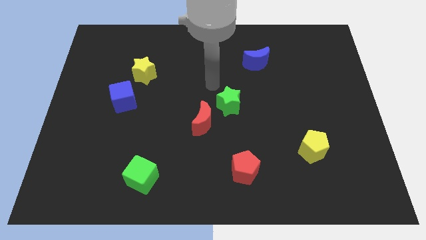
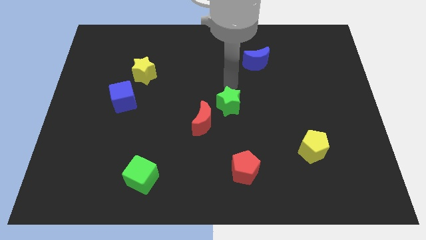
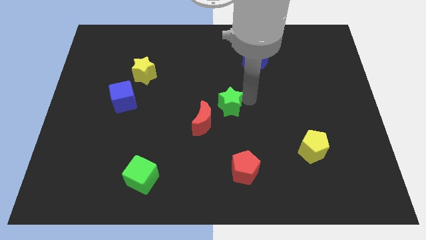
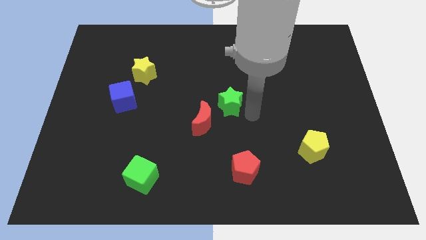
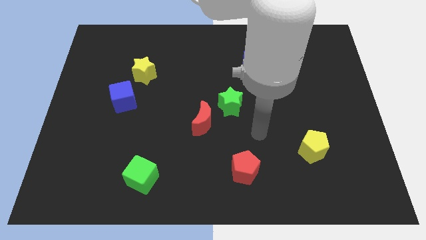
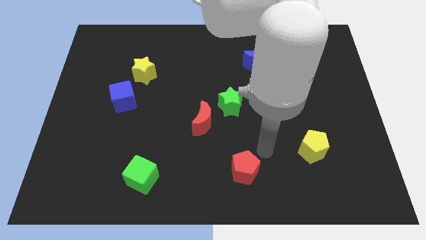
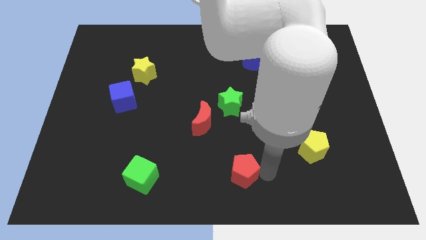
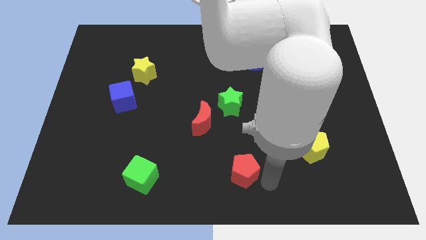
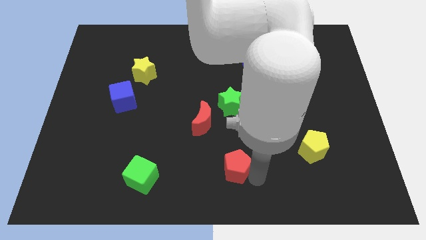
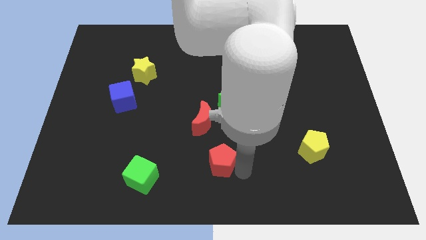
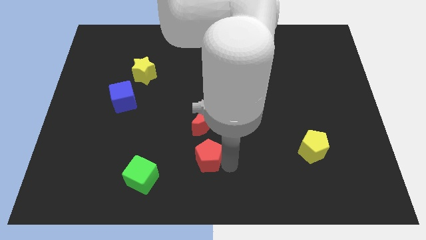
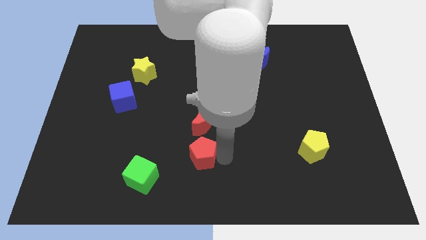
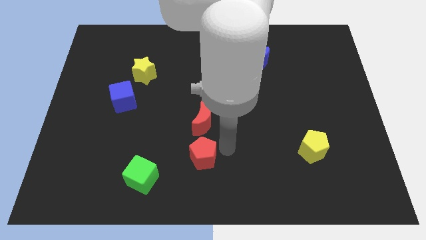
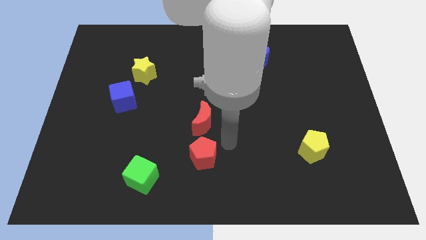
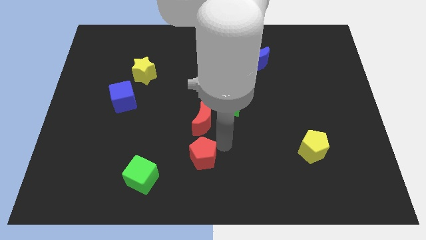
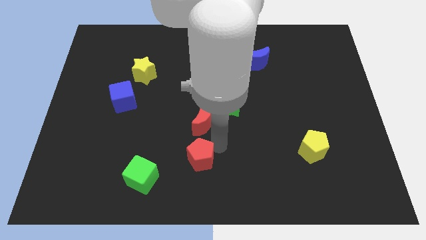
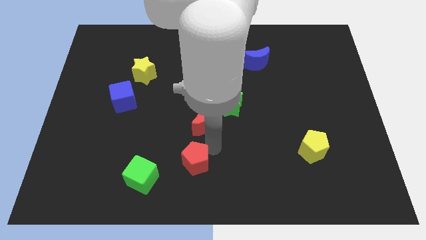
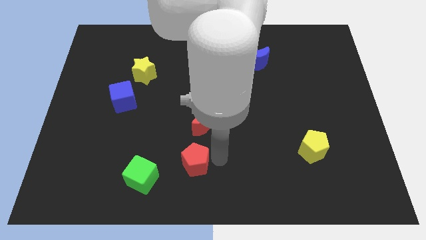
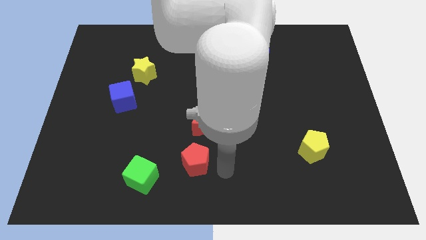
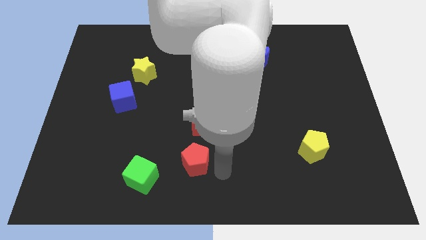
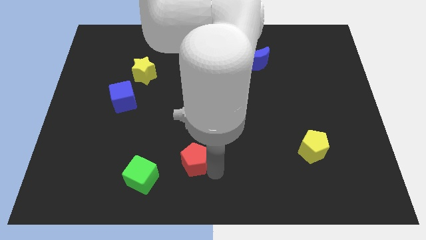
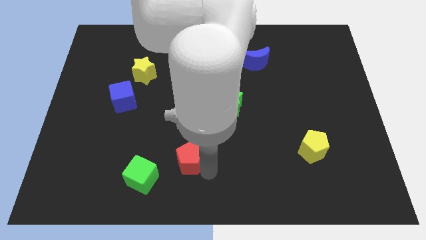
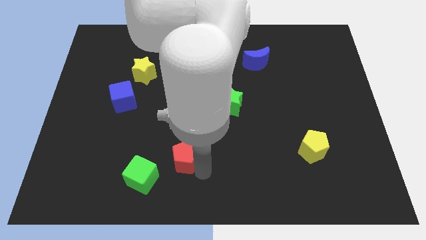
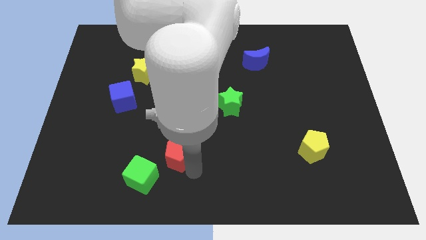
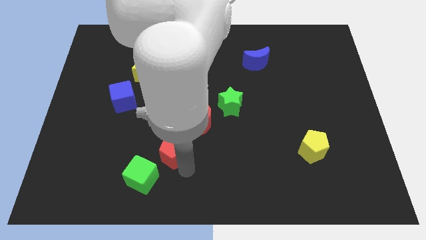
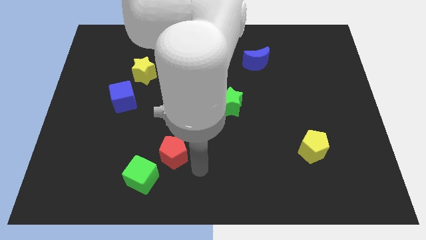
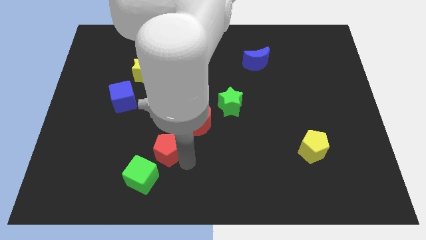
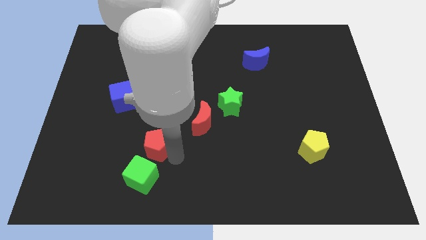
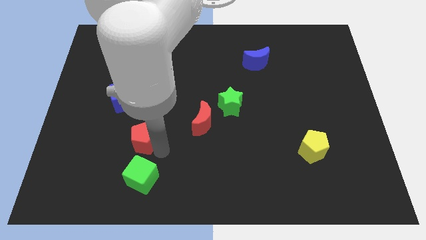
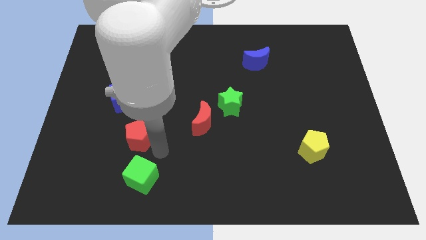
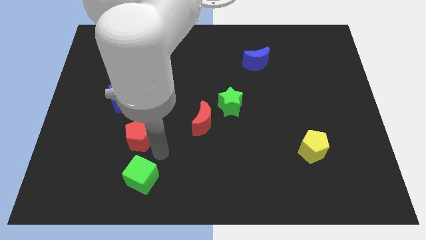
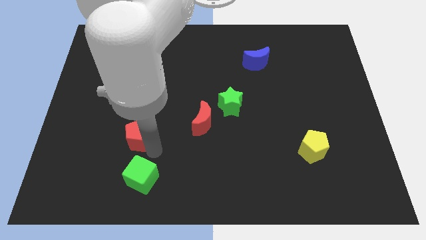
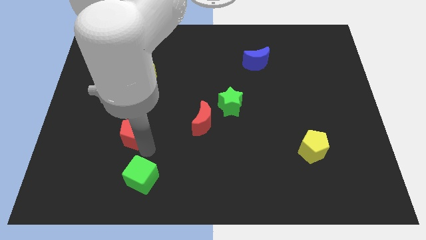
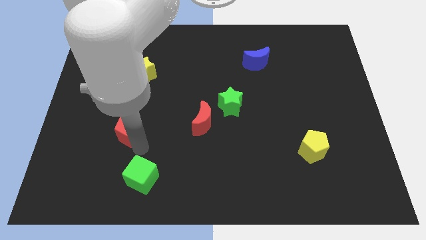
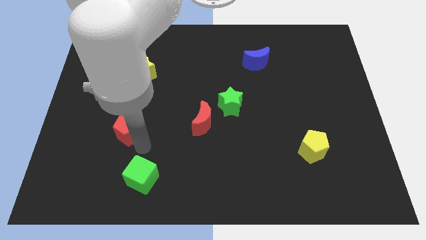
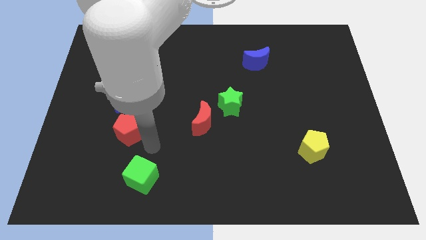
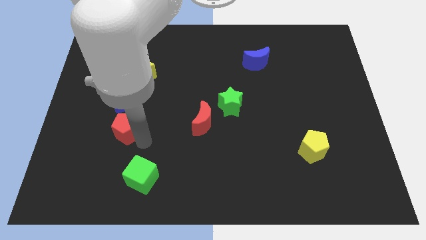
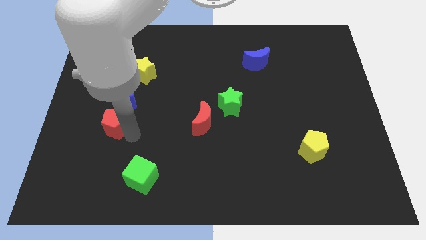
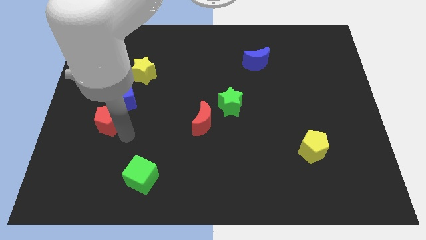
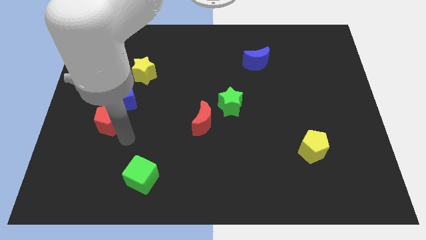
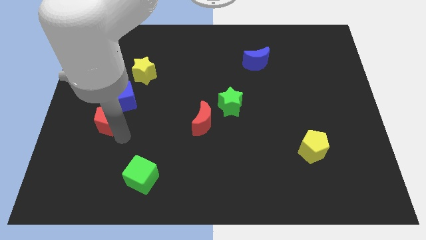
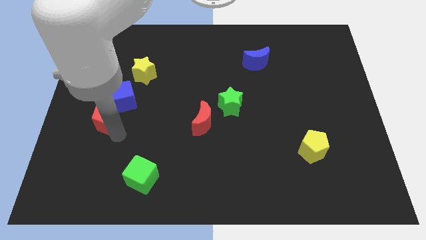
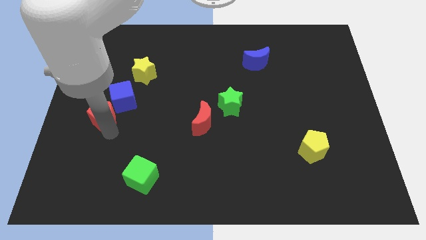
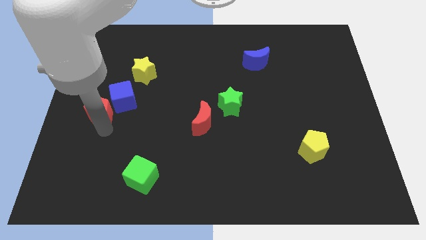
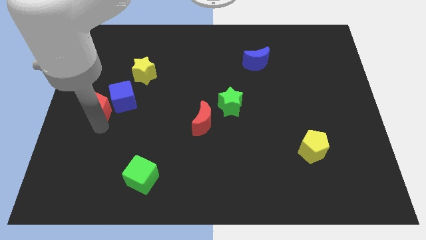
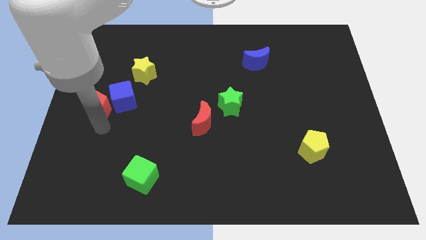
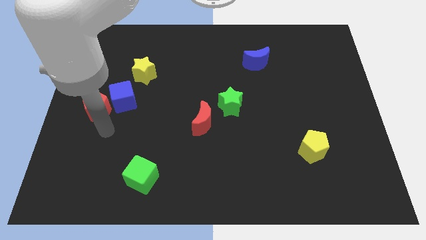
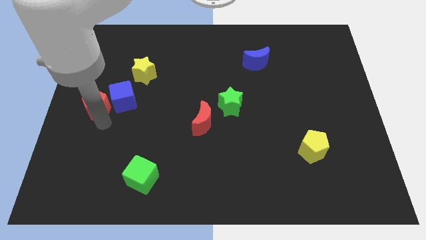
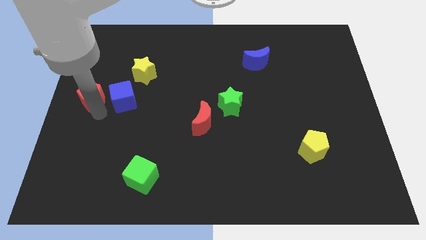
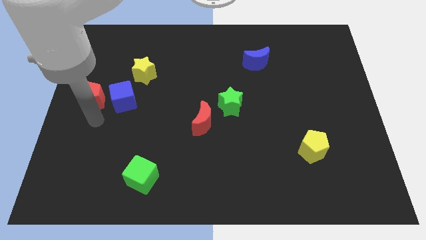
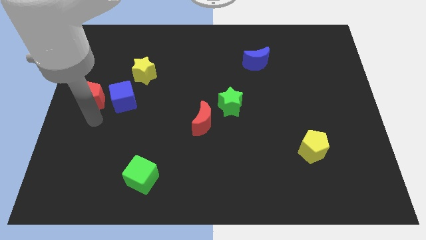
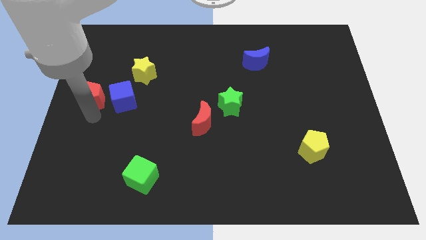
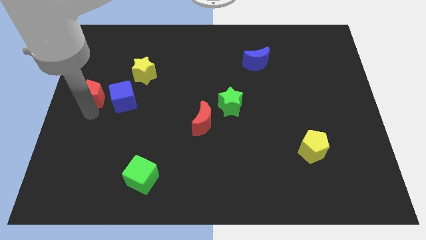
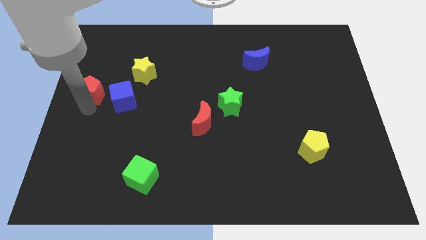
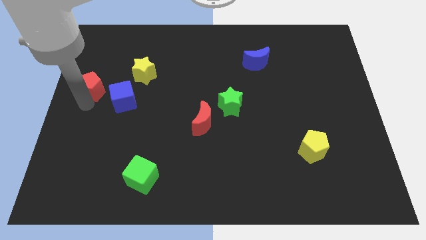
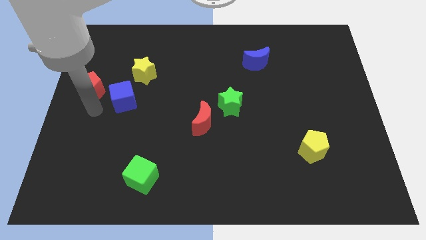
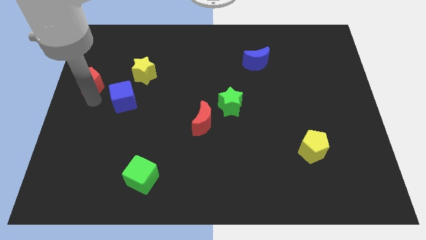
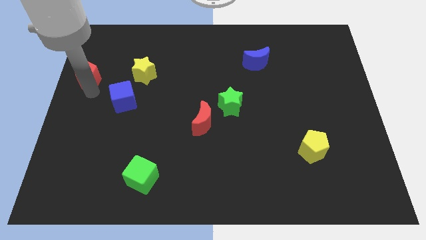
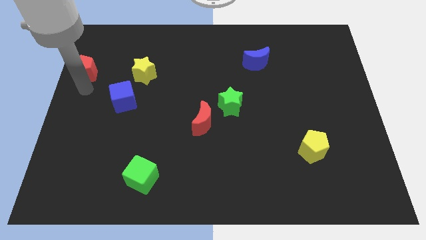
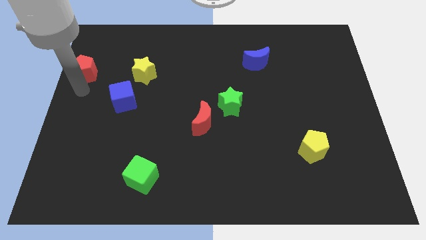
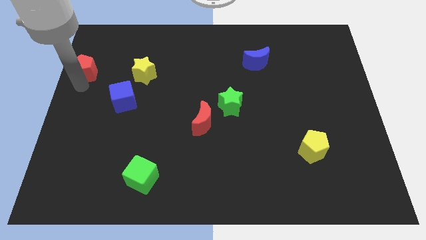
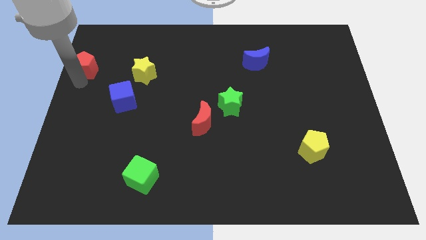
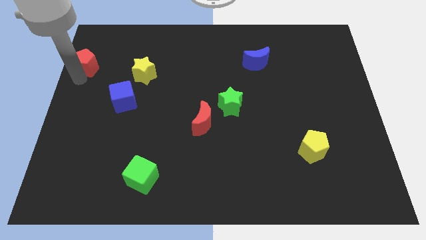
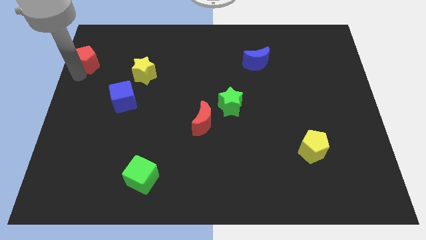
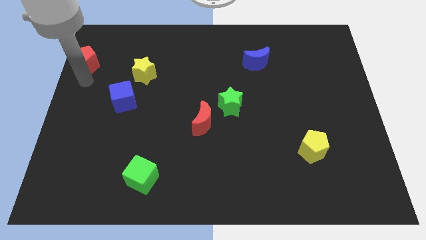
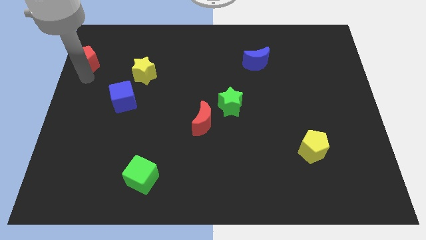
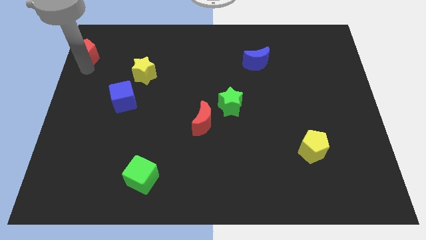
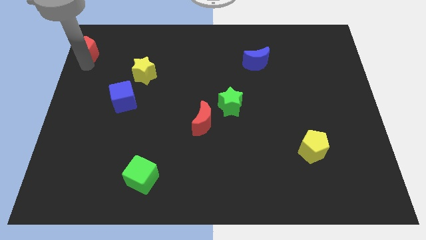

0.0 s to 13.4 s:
push the red pentagon to the upper left corner
